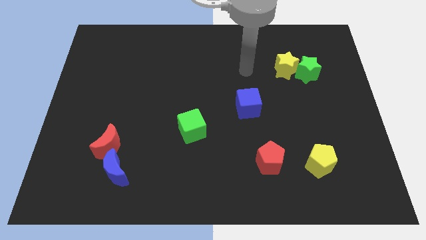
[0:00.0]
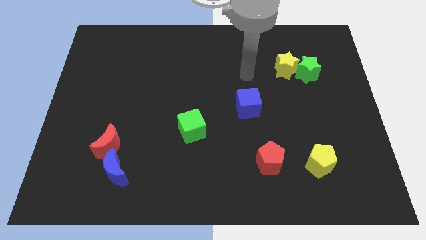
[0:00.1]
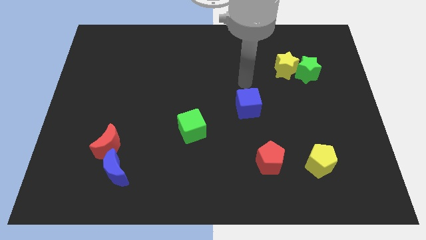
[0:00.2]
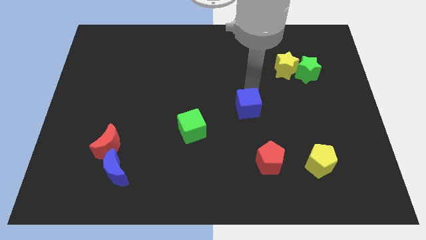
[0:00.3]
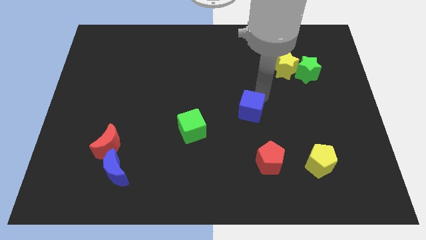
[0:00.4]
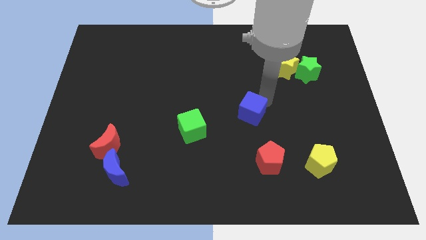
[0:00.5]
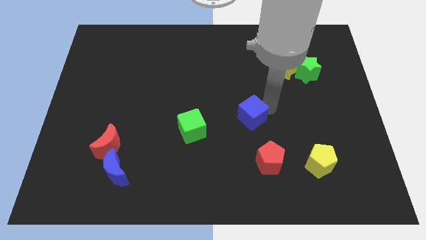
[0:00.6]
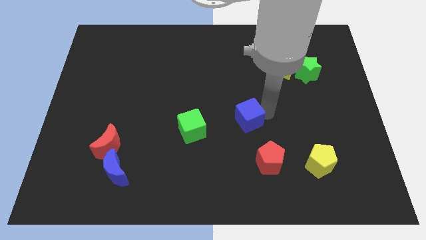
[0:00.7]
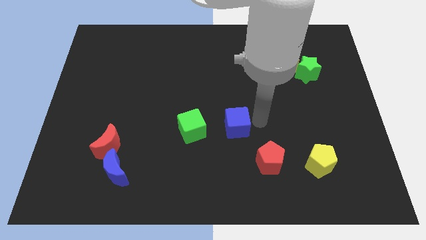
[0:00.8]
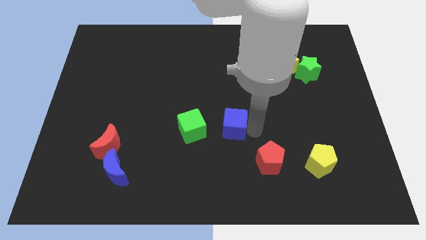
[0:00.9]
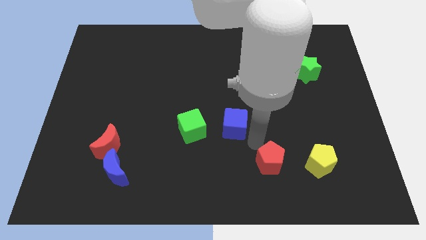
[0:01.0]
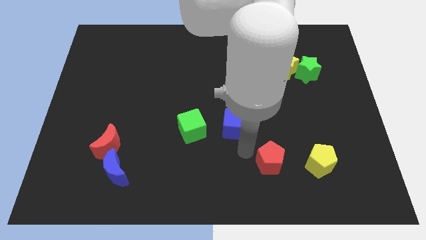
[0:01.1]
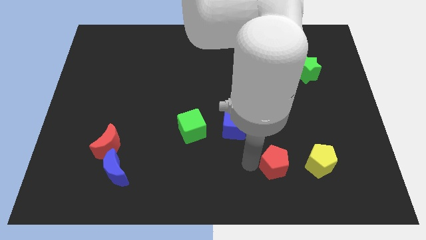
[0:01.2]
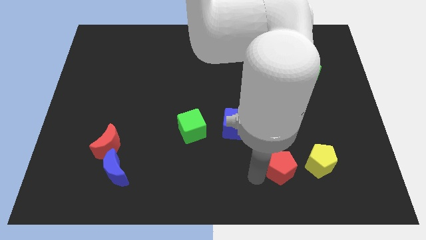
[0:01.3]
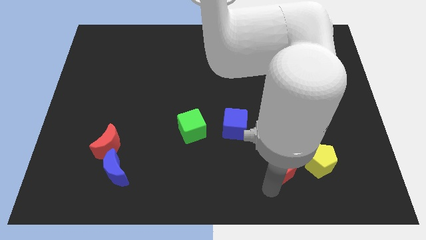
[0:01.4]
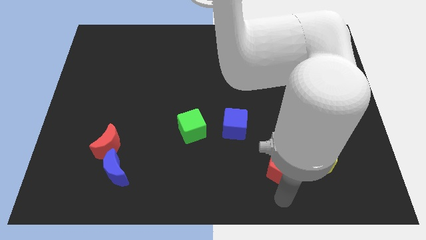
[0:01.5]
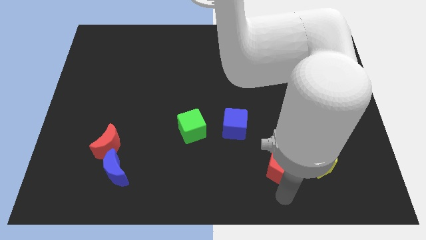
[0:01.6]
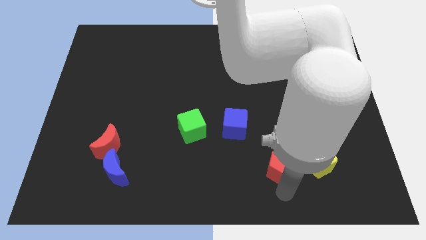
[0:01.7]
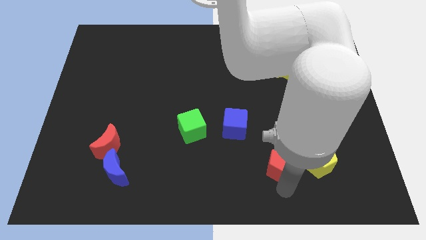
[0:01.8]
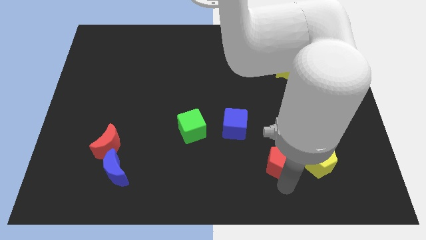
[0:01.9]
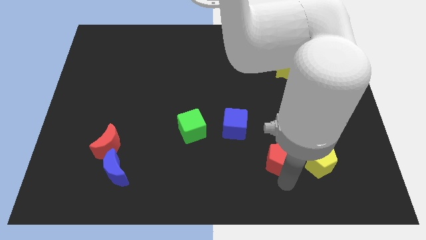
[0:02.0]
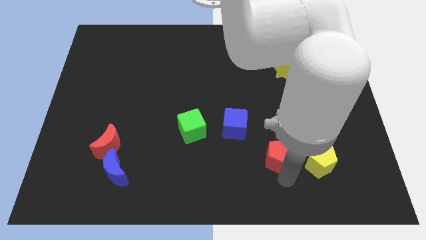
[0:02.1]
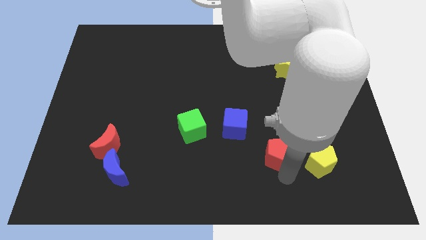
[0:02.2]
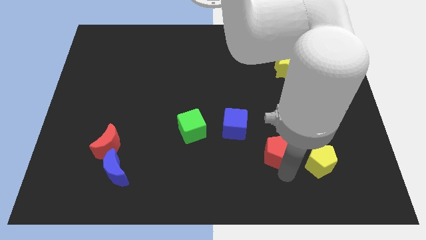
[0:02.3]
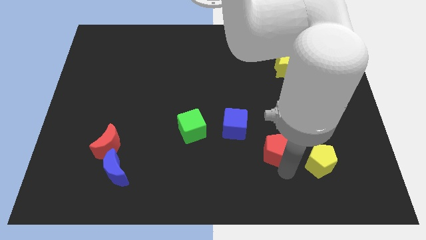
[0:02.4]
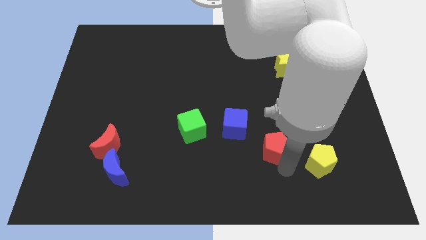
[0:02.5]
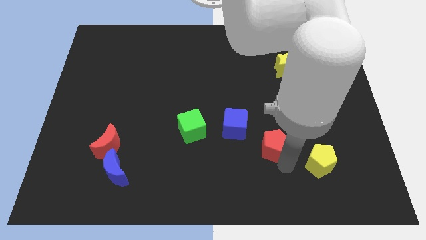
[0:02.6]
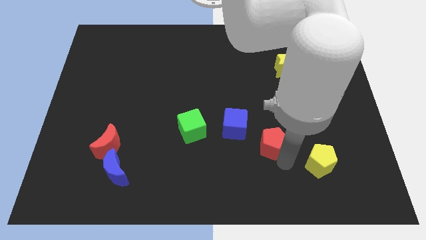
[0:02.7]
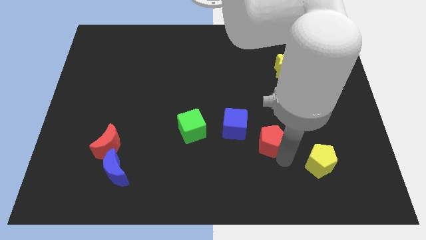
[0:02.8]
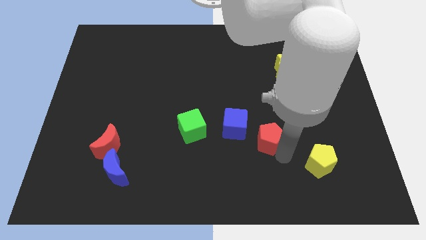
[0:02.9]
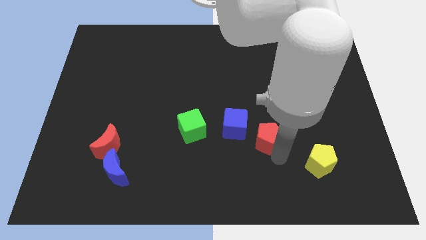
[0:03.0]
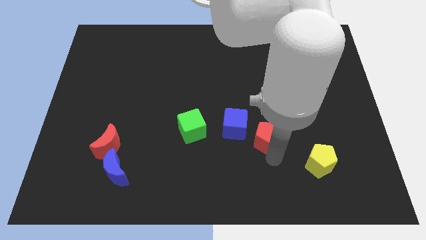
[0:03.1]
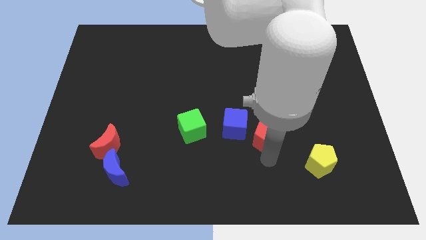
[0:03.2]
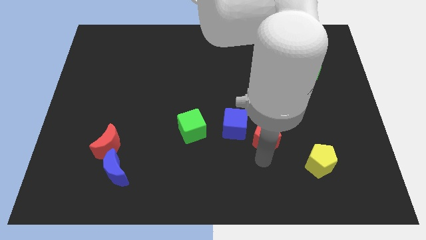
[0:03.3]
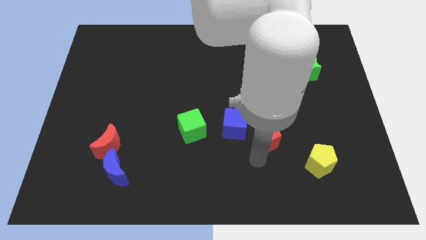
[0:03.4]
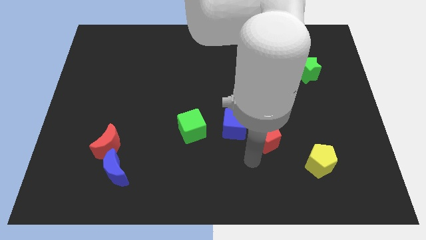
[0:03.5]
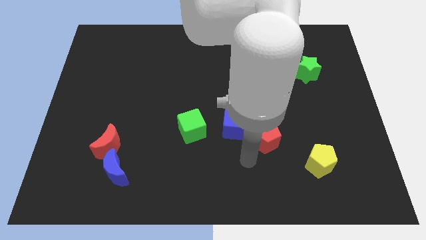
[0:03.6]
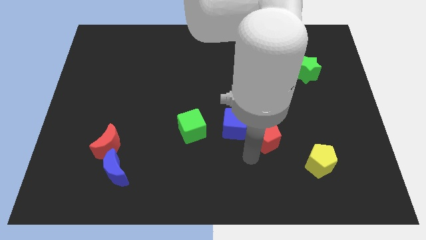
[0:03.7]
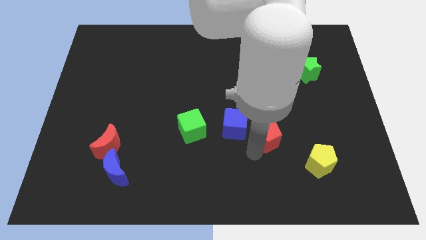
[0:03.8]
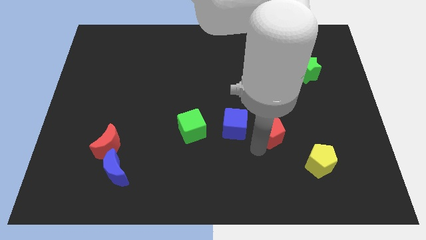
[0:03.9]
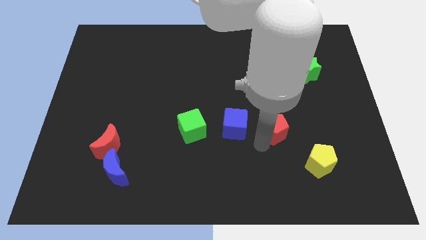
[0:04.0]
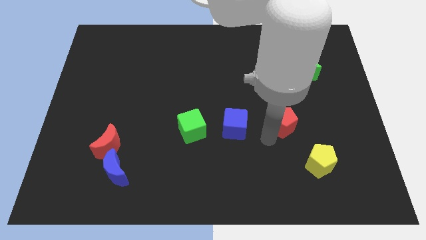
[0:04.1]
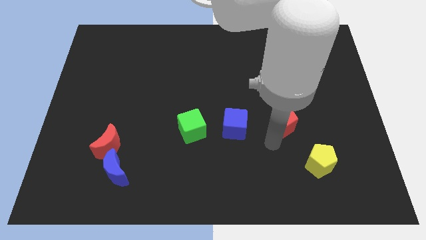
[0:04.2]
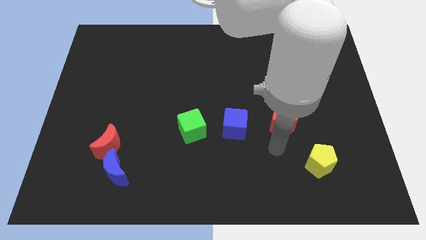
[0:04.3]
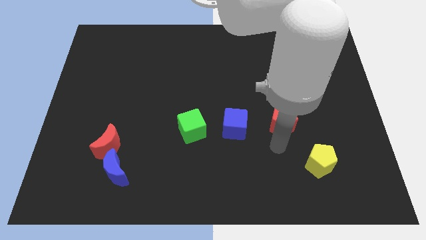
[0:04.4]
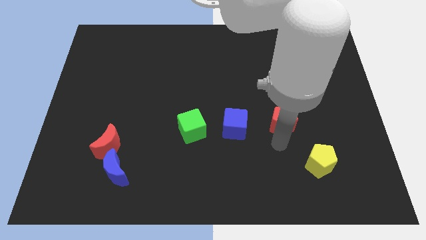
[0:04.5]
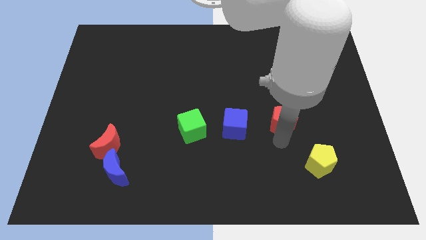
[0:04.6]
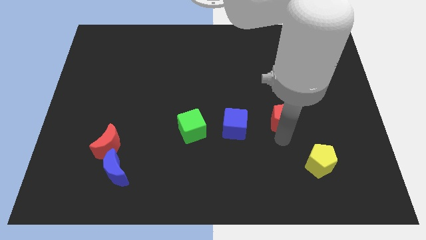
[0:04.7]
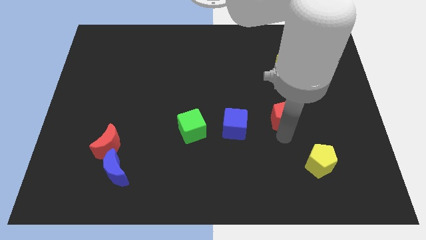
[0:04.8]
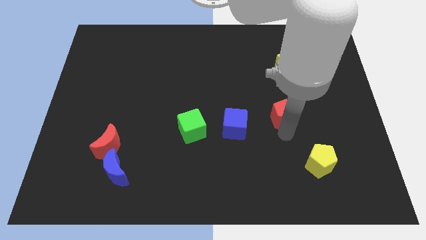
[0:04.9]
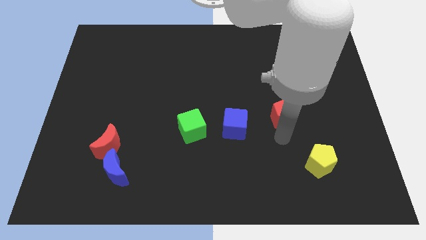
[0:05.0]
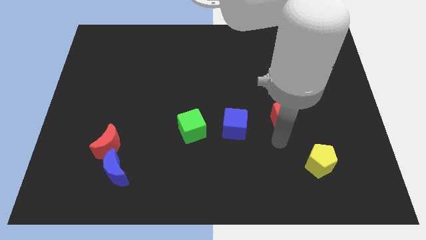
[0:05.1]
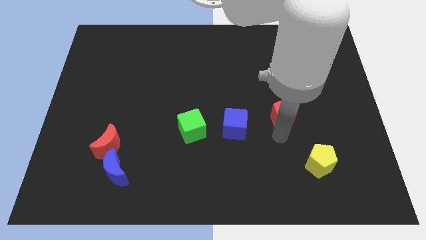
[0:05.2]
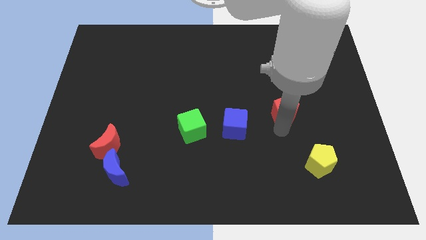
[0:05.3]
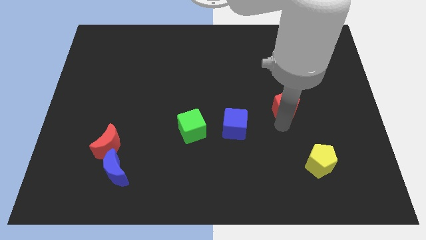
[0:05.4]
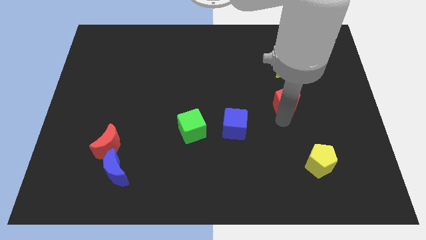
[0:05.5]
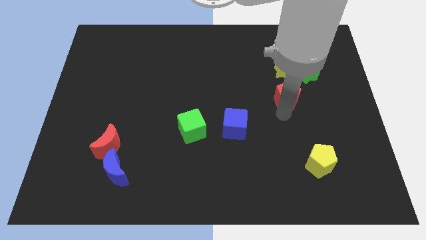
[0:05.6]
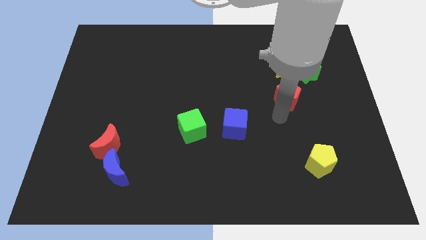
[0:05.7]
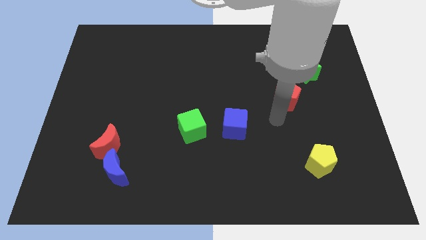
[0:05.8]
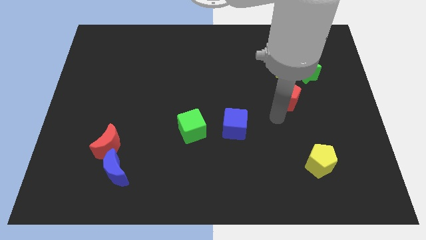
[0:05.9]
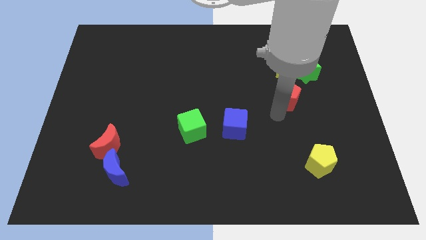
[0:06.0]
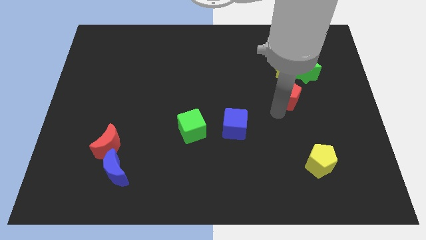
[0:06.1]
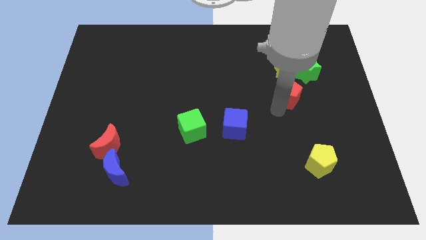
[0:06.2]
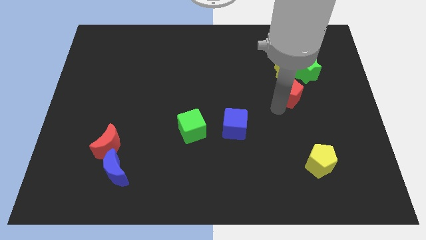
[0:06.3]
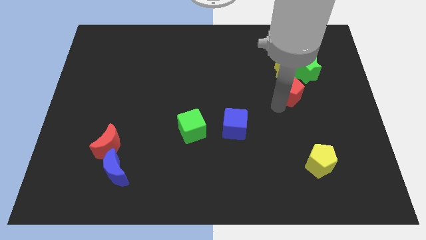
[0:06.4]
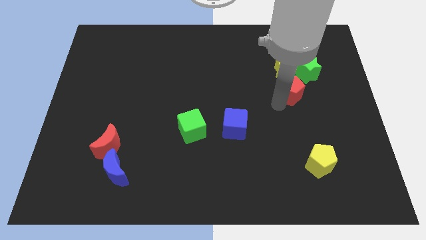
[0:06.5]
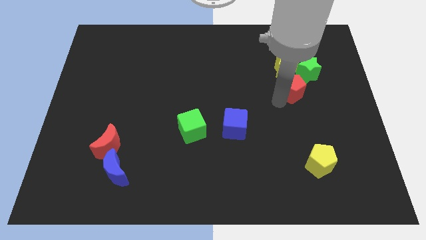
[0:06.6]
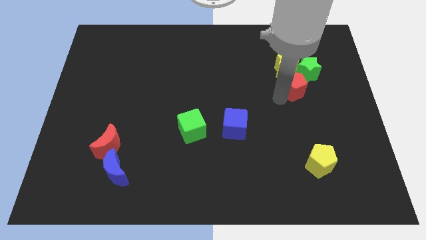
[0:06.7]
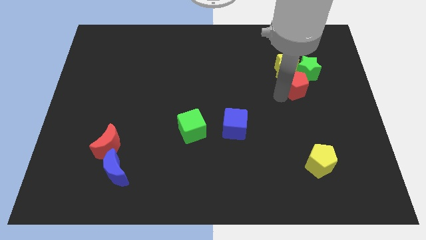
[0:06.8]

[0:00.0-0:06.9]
slide the red pentagon close to the green star

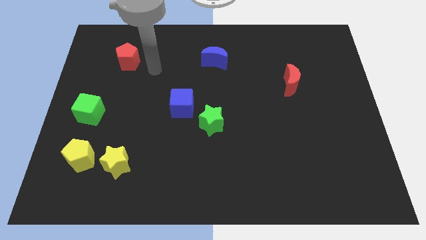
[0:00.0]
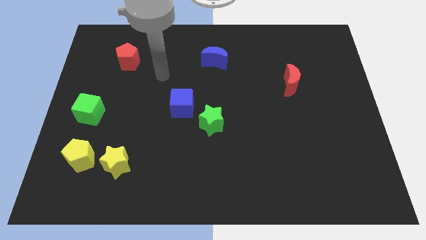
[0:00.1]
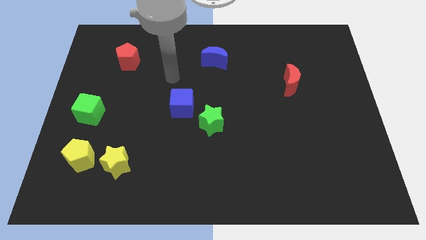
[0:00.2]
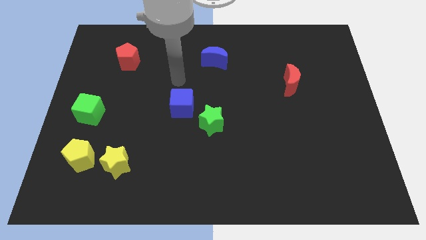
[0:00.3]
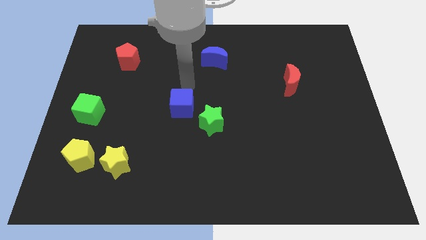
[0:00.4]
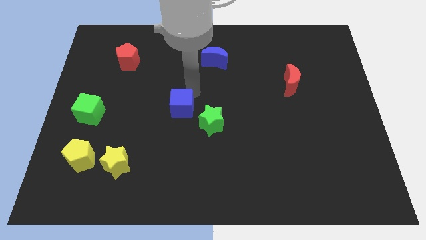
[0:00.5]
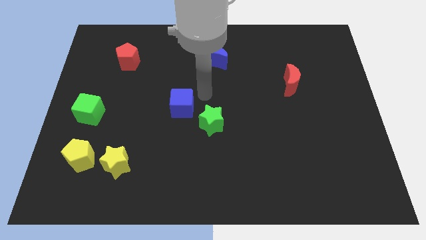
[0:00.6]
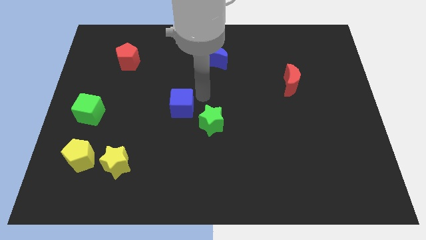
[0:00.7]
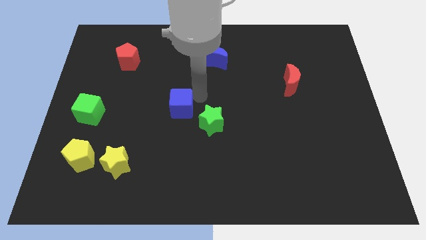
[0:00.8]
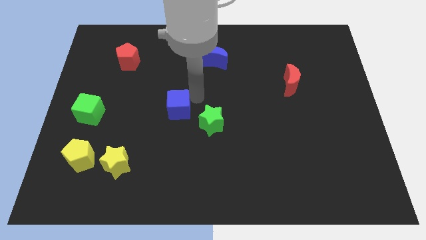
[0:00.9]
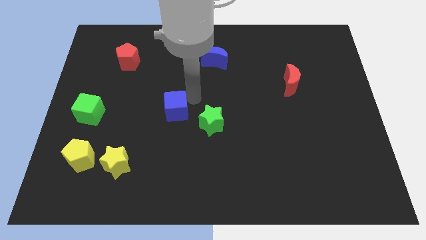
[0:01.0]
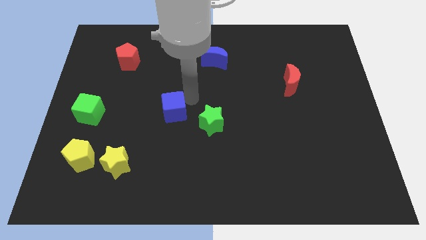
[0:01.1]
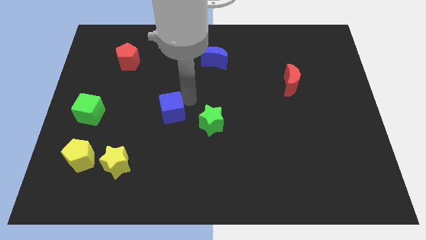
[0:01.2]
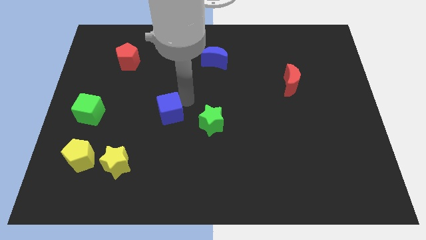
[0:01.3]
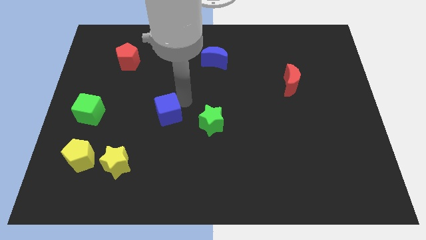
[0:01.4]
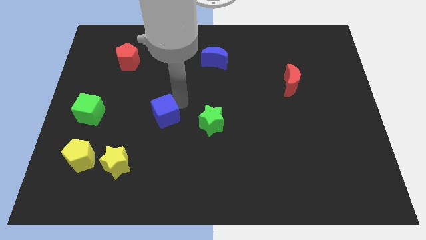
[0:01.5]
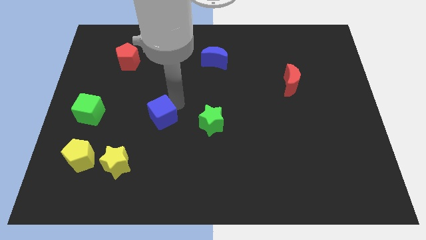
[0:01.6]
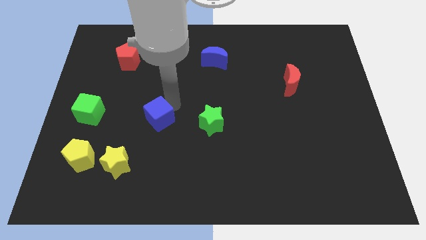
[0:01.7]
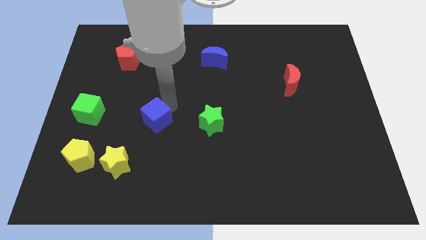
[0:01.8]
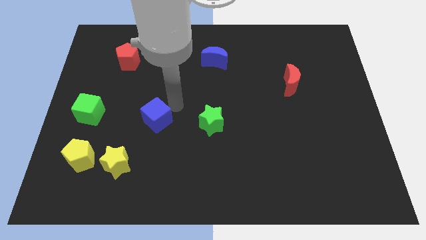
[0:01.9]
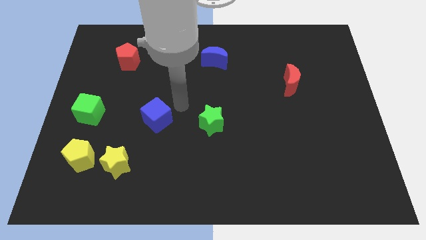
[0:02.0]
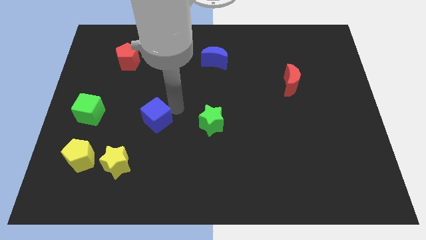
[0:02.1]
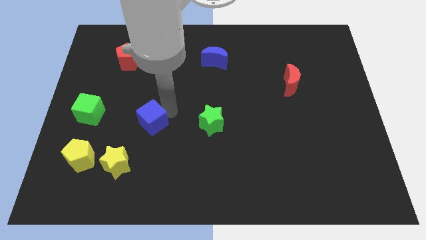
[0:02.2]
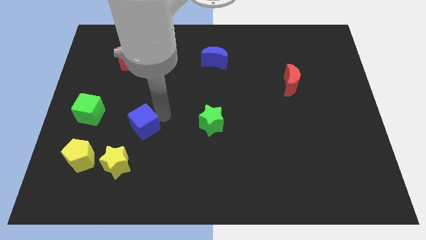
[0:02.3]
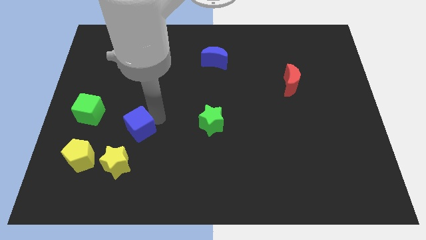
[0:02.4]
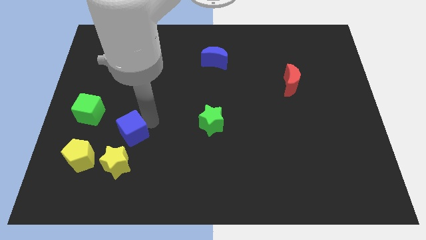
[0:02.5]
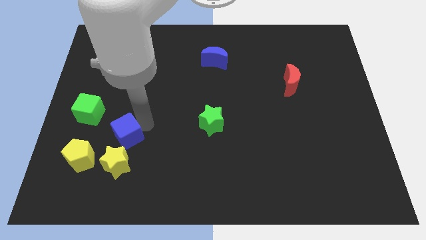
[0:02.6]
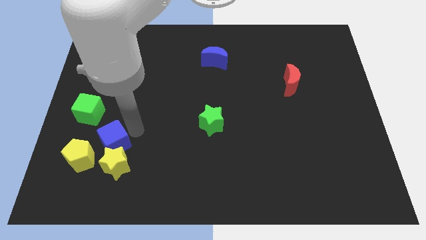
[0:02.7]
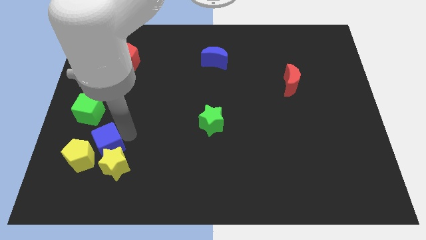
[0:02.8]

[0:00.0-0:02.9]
move the blue cube next to the yellow pentagon
